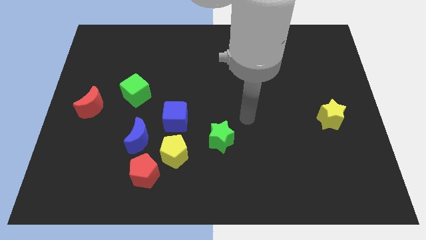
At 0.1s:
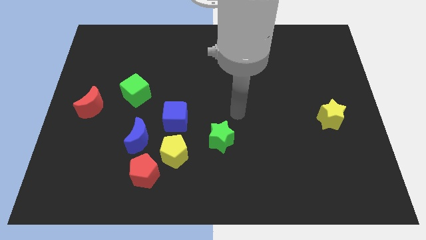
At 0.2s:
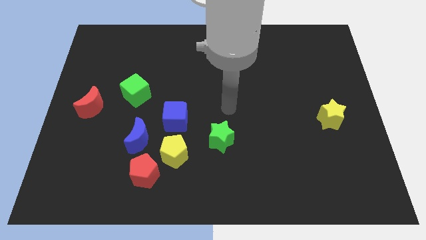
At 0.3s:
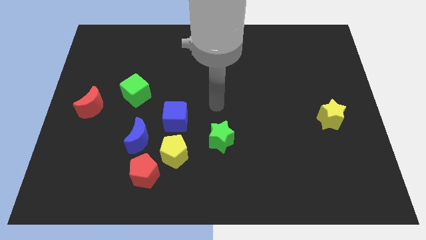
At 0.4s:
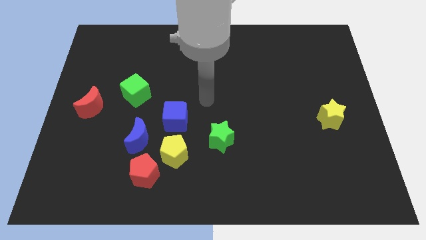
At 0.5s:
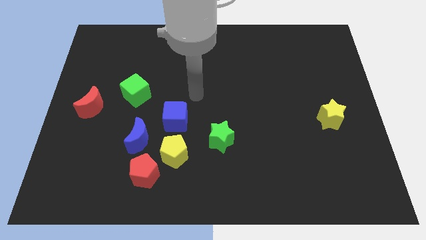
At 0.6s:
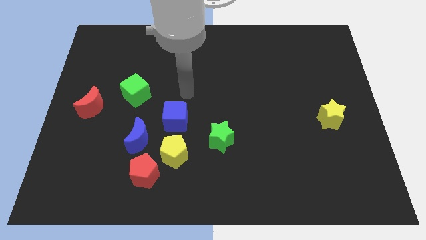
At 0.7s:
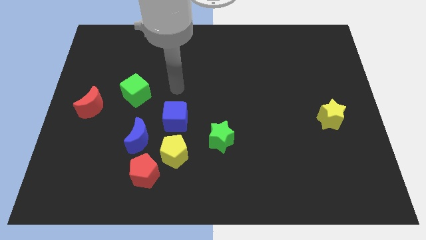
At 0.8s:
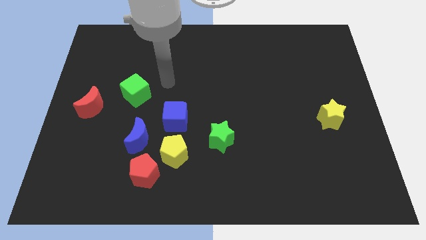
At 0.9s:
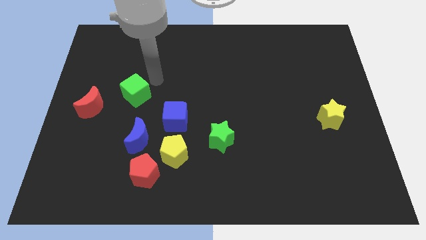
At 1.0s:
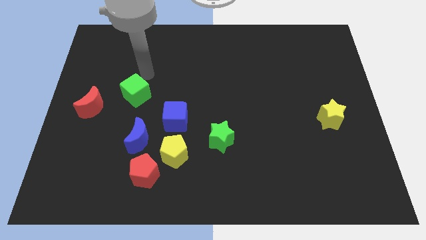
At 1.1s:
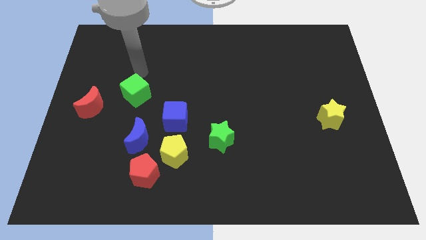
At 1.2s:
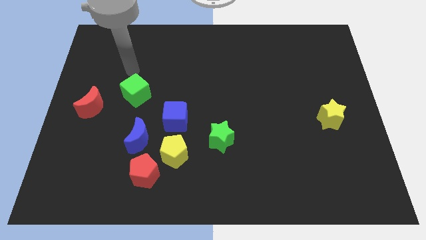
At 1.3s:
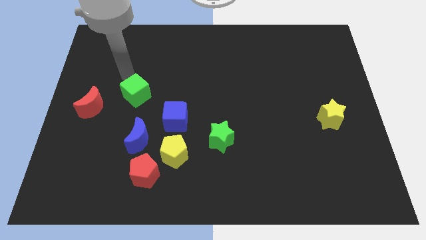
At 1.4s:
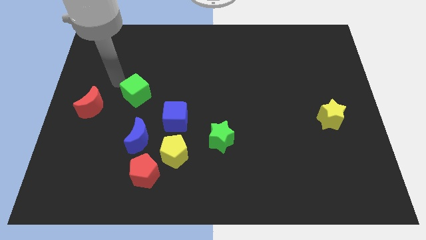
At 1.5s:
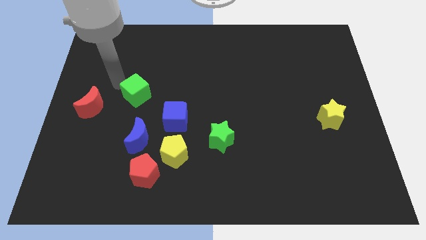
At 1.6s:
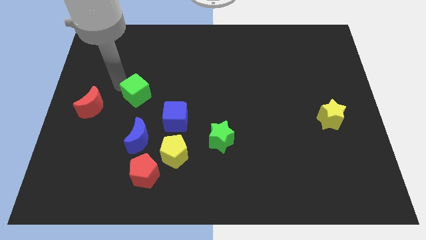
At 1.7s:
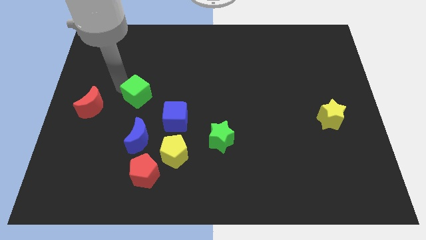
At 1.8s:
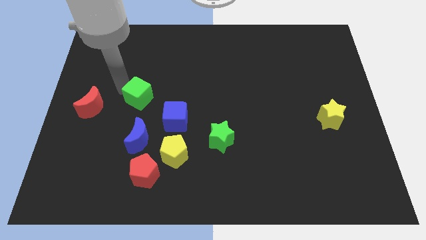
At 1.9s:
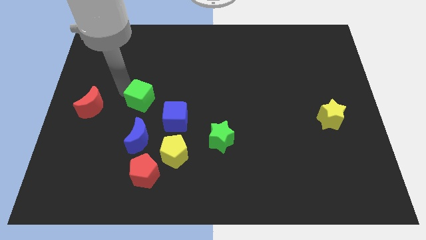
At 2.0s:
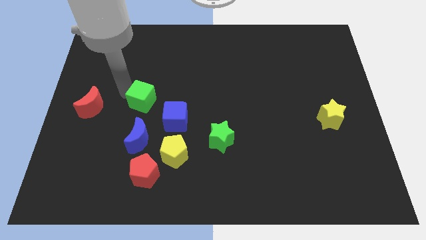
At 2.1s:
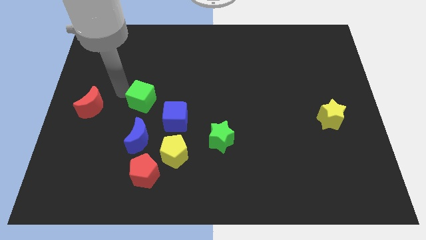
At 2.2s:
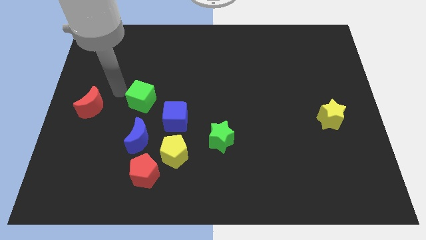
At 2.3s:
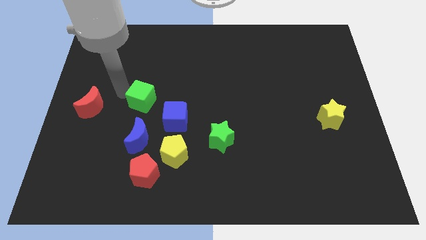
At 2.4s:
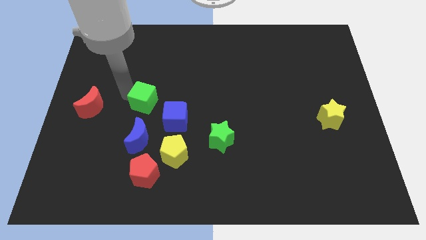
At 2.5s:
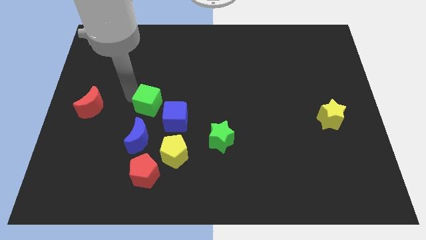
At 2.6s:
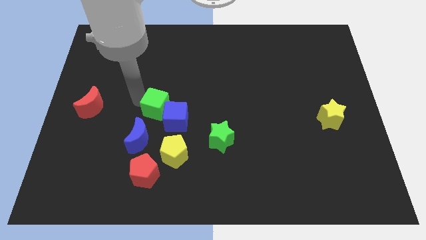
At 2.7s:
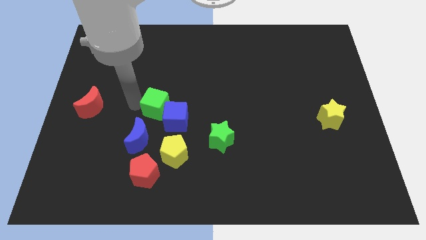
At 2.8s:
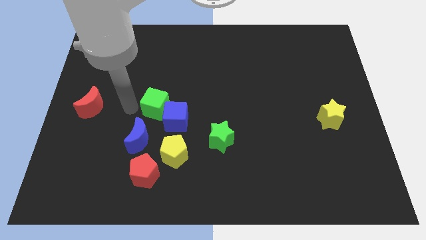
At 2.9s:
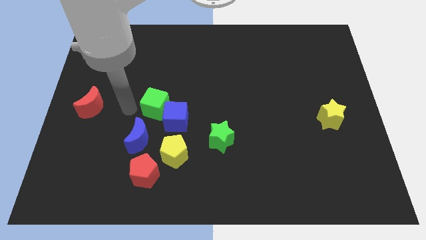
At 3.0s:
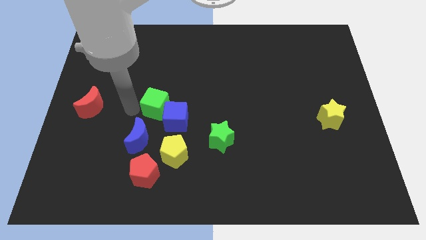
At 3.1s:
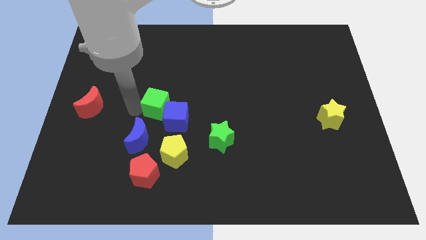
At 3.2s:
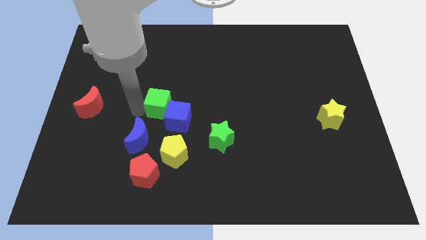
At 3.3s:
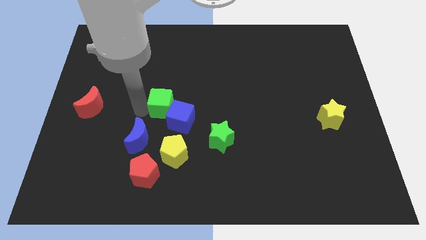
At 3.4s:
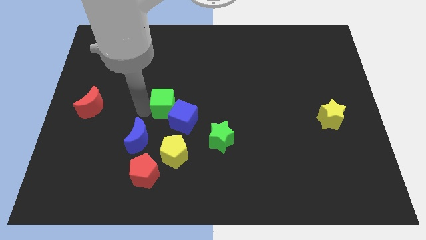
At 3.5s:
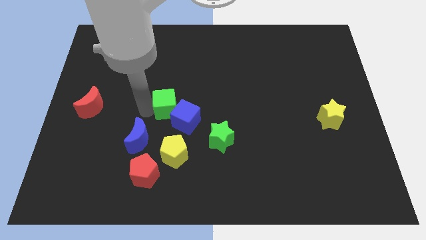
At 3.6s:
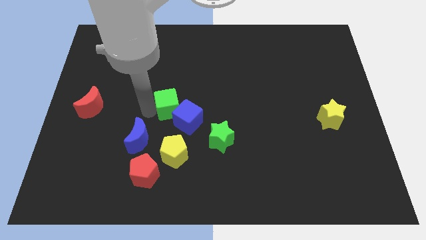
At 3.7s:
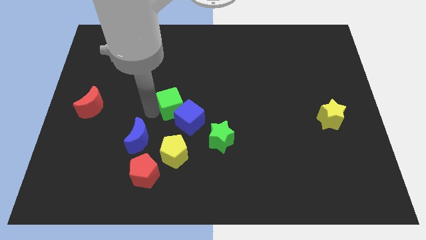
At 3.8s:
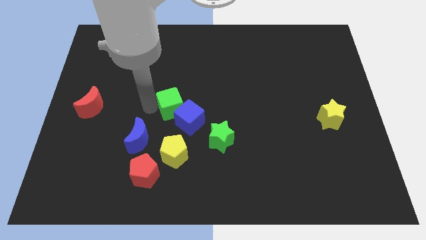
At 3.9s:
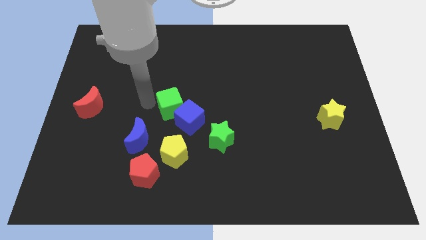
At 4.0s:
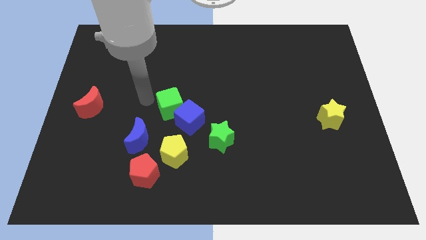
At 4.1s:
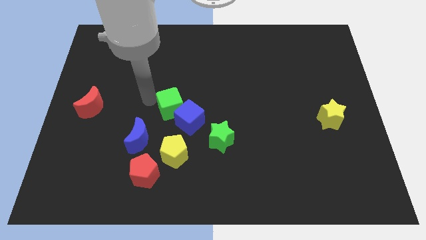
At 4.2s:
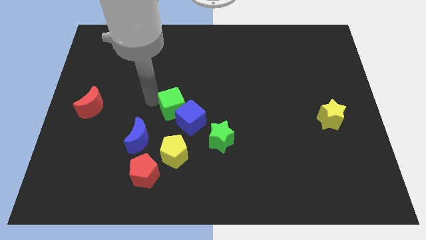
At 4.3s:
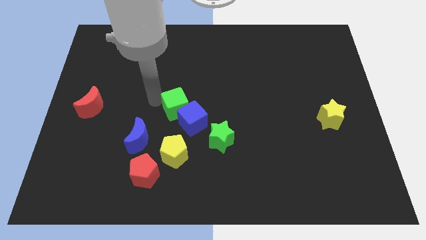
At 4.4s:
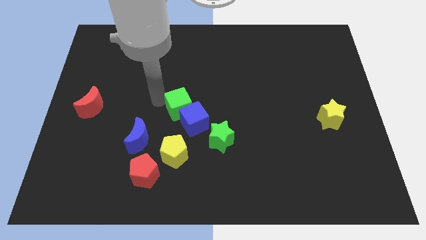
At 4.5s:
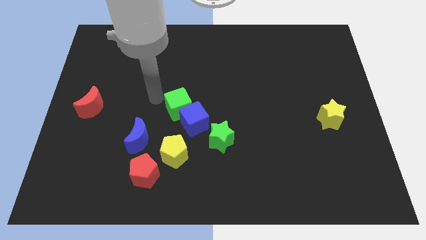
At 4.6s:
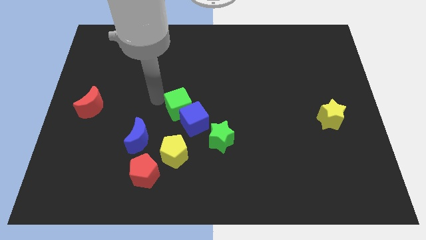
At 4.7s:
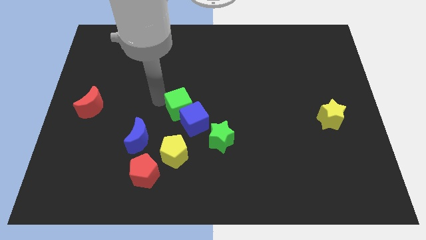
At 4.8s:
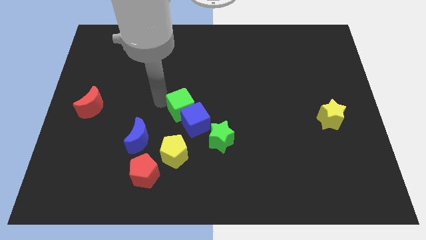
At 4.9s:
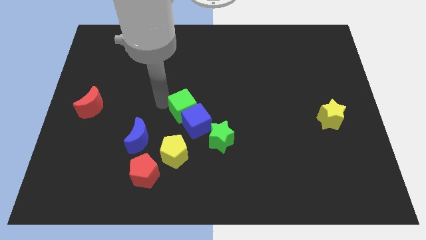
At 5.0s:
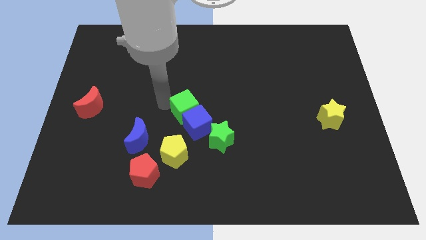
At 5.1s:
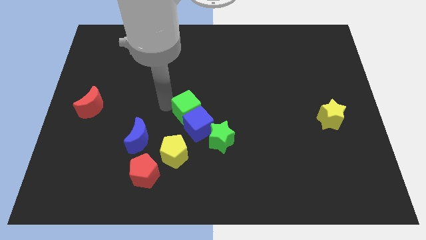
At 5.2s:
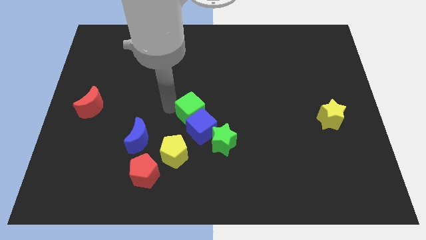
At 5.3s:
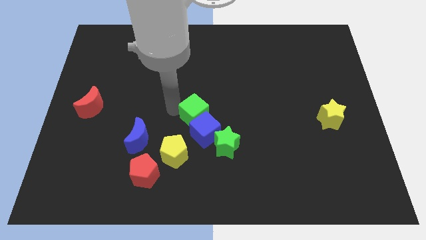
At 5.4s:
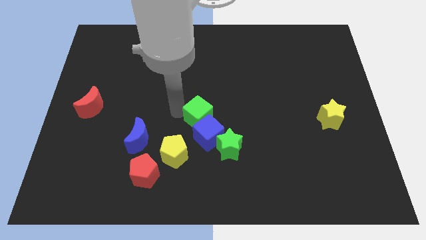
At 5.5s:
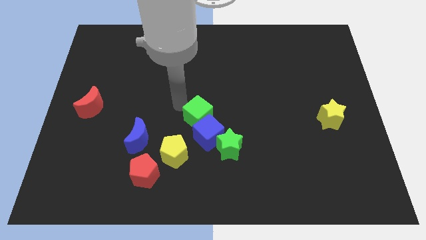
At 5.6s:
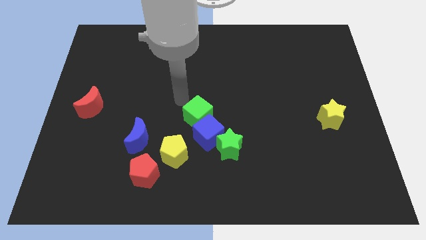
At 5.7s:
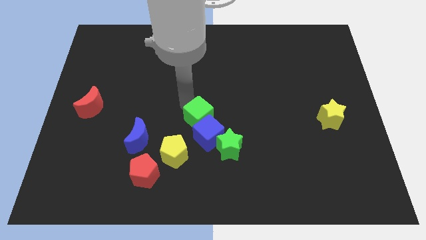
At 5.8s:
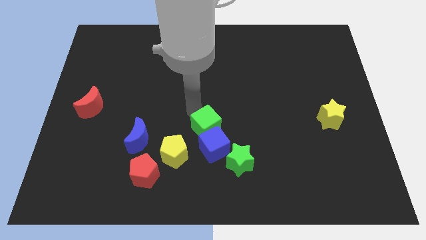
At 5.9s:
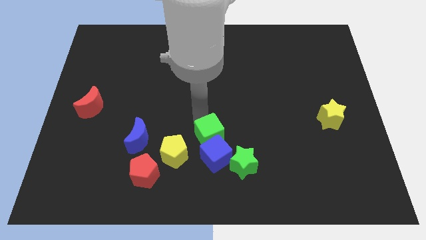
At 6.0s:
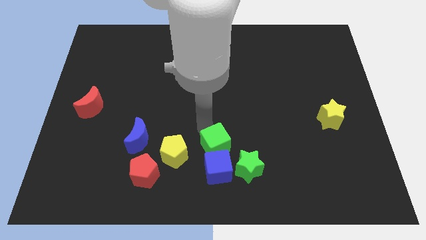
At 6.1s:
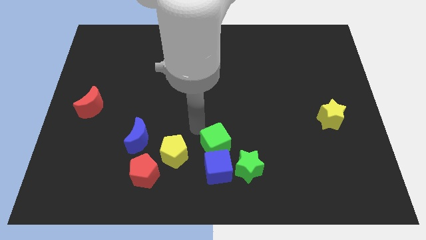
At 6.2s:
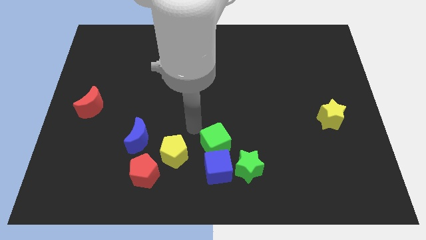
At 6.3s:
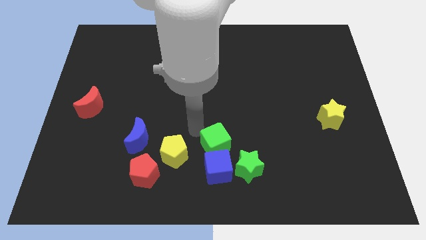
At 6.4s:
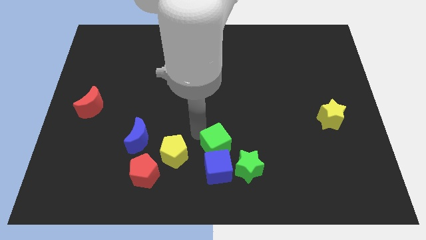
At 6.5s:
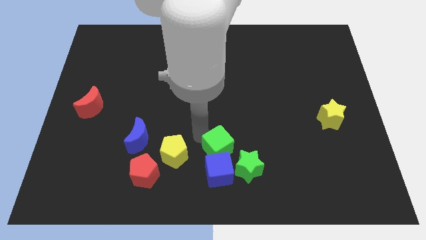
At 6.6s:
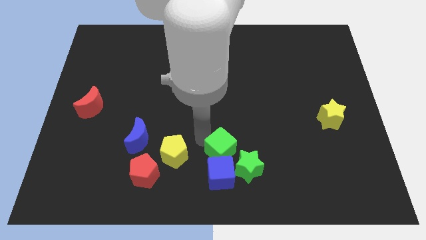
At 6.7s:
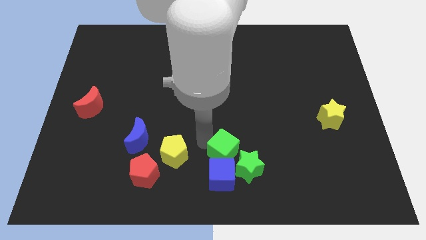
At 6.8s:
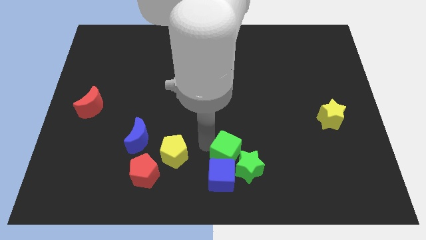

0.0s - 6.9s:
slide the green cube towards the green star

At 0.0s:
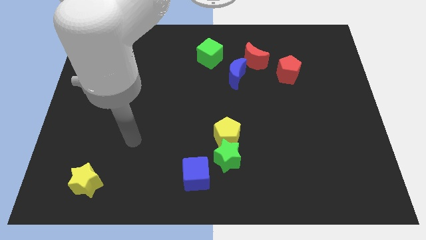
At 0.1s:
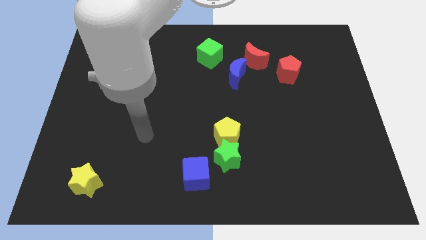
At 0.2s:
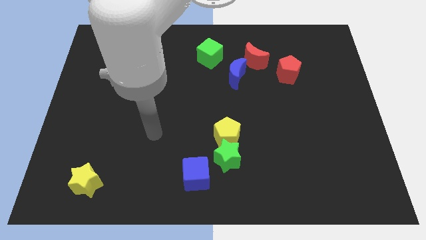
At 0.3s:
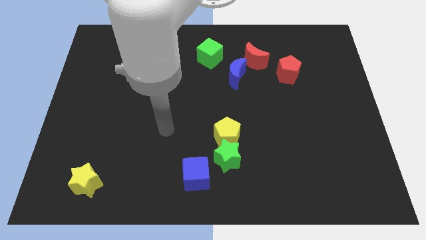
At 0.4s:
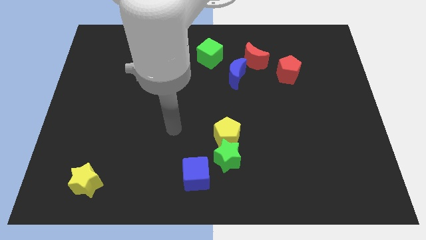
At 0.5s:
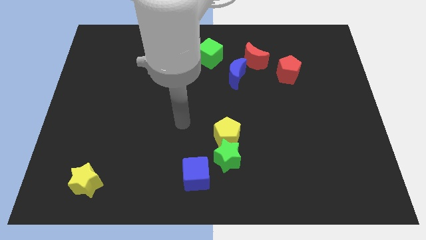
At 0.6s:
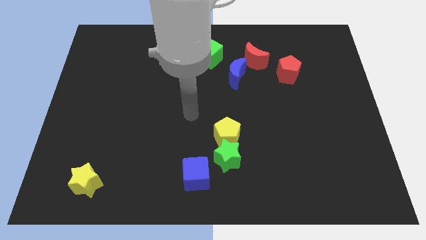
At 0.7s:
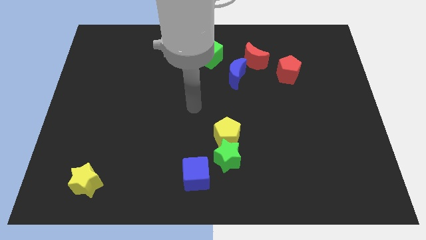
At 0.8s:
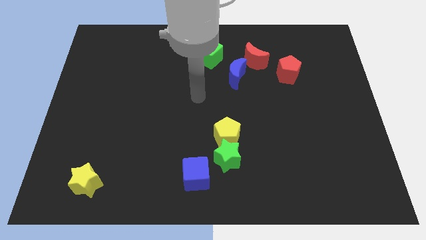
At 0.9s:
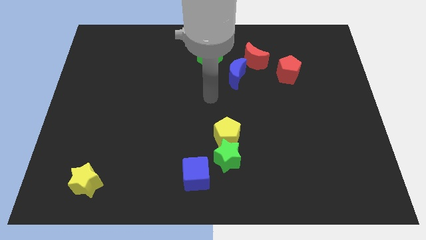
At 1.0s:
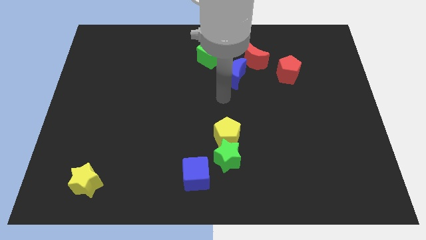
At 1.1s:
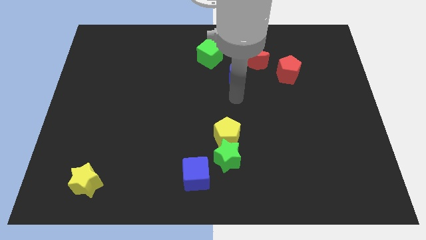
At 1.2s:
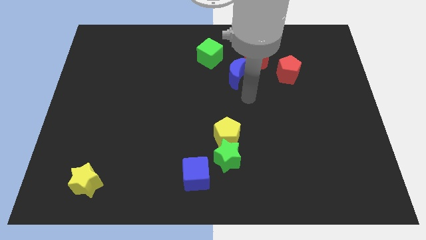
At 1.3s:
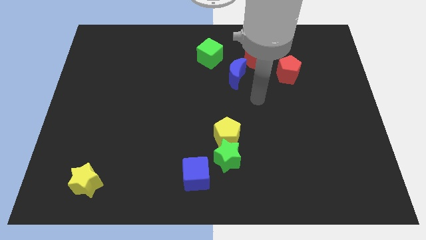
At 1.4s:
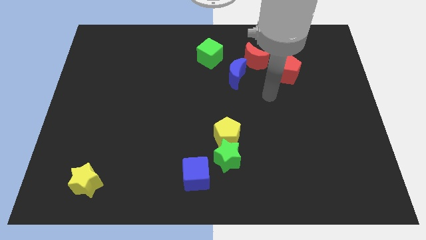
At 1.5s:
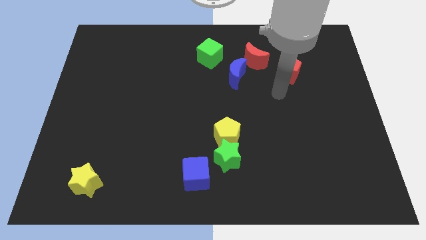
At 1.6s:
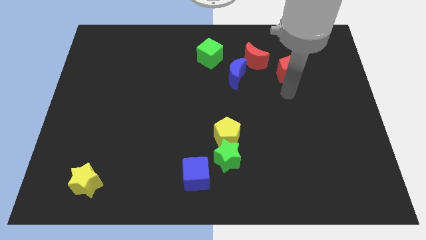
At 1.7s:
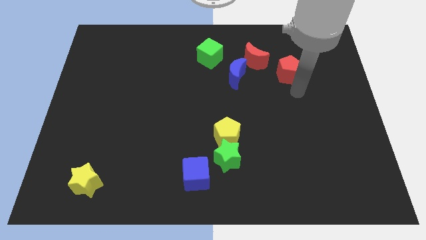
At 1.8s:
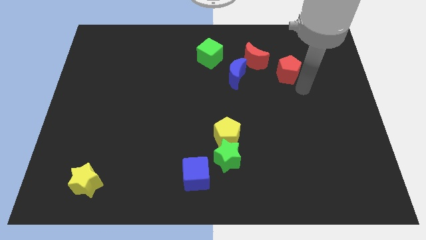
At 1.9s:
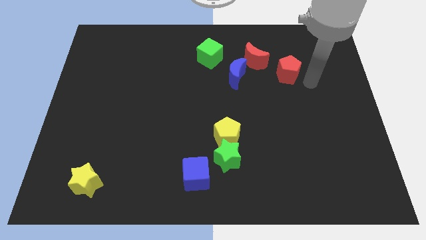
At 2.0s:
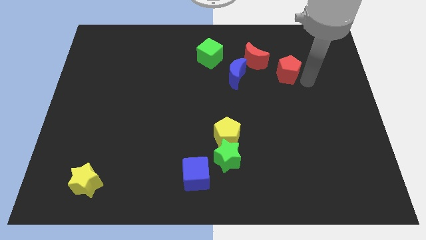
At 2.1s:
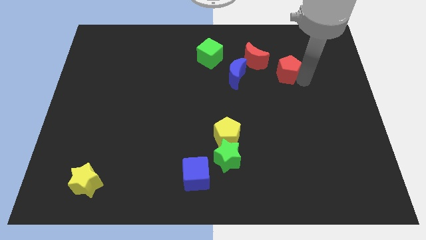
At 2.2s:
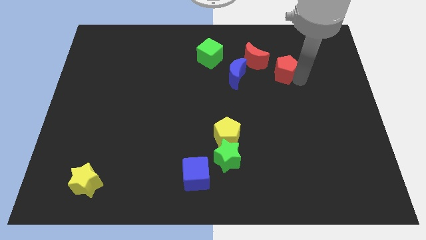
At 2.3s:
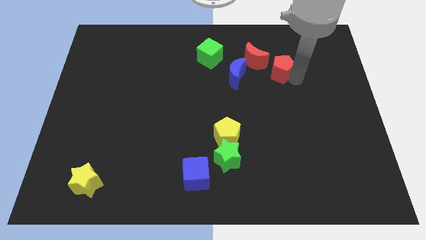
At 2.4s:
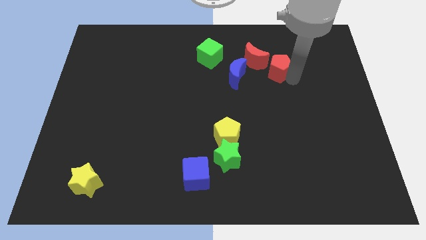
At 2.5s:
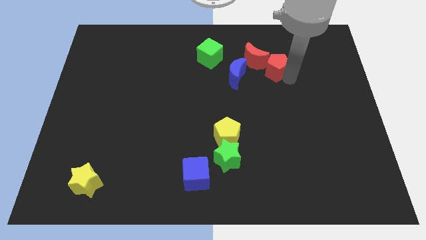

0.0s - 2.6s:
move the red pentagon next to the red moon
